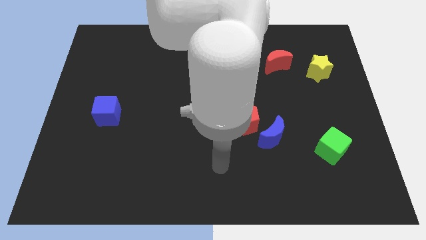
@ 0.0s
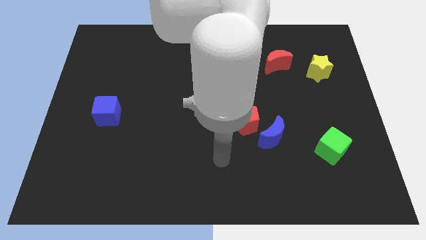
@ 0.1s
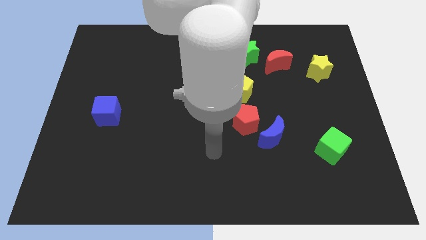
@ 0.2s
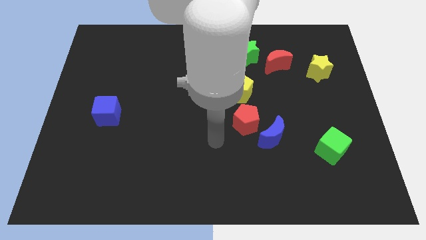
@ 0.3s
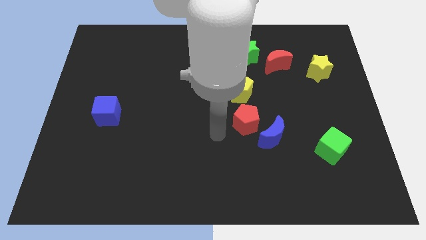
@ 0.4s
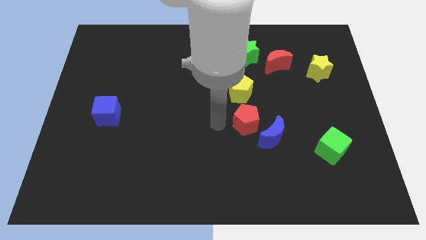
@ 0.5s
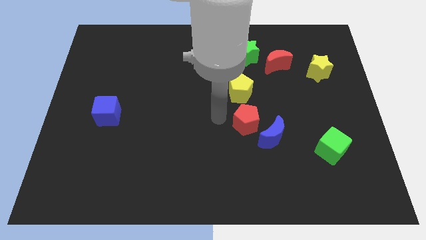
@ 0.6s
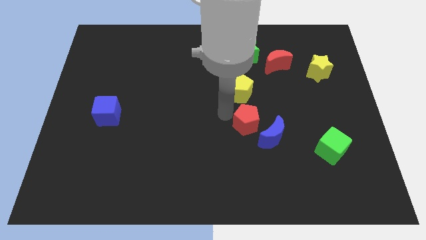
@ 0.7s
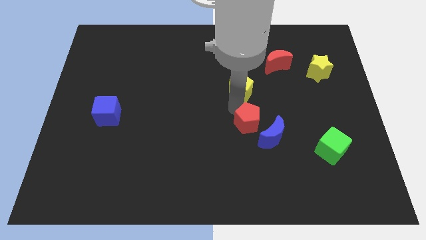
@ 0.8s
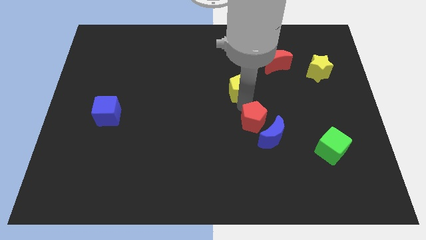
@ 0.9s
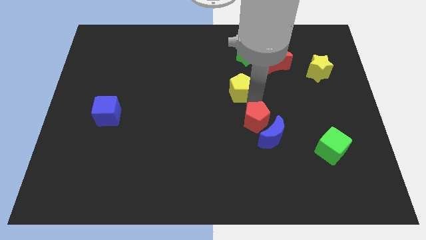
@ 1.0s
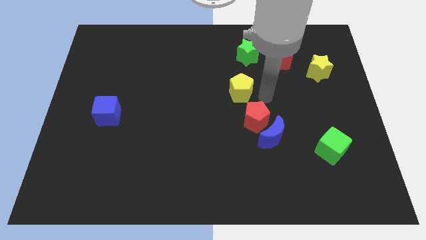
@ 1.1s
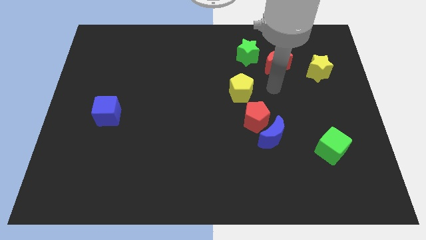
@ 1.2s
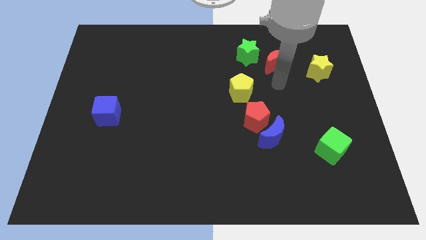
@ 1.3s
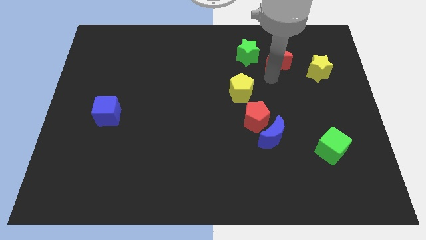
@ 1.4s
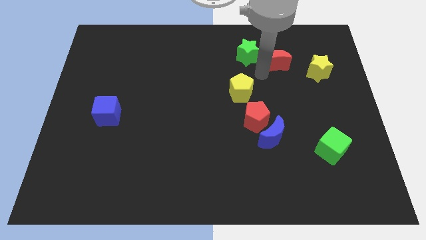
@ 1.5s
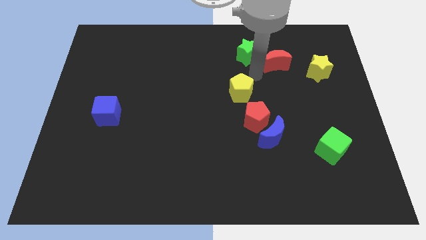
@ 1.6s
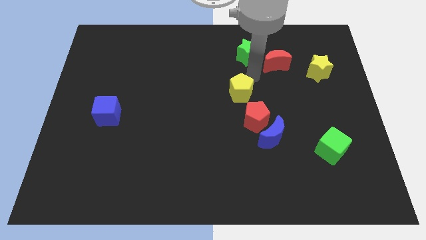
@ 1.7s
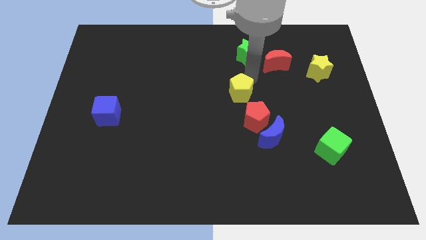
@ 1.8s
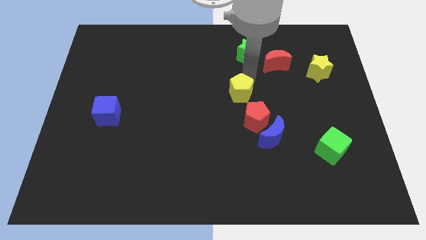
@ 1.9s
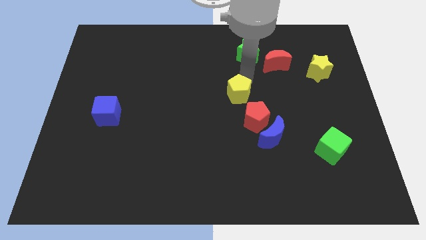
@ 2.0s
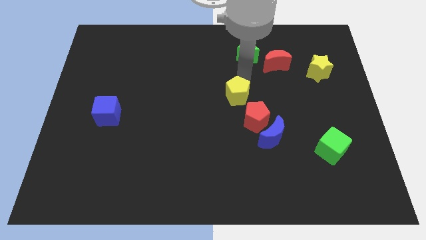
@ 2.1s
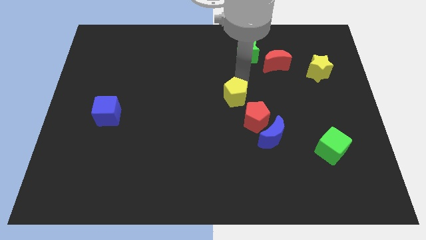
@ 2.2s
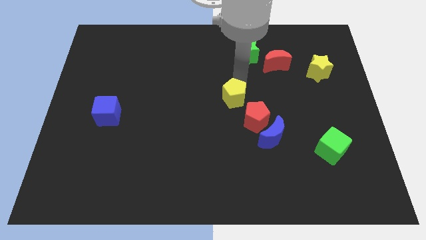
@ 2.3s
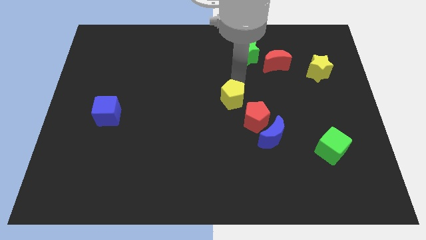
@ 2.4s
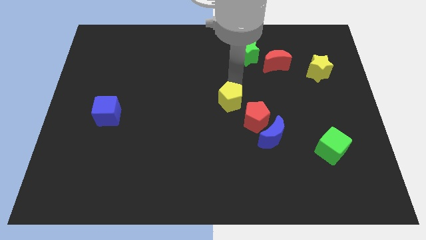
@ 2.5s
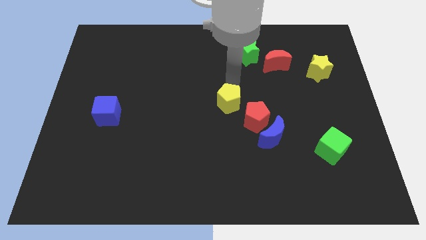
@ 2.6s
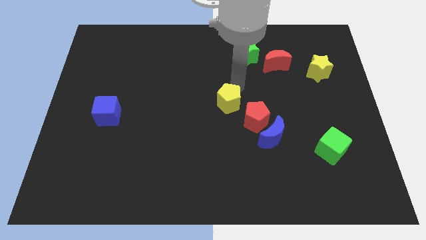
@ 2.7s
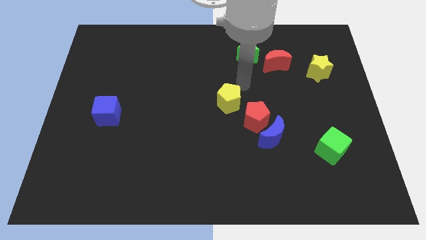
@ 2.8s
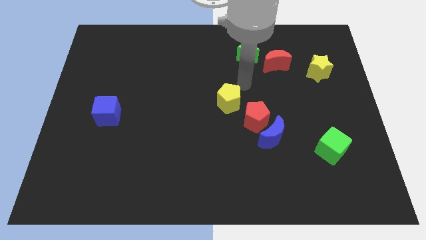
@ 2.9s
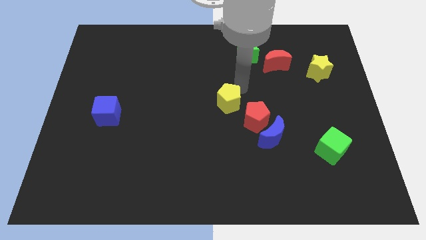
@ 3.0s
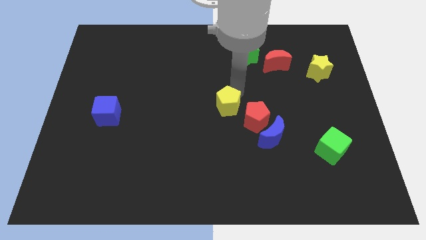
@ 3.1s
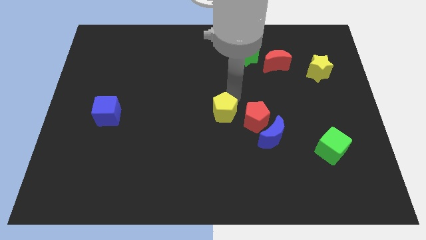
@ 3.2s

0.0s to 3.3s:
slide the yellow pentagon slightly downwards and to the left

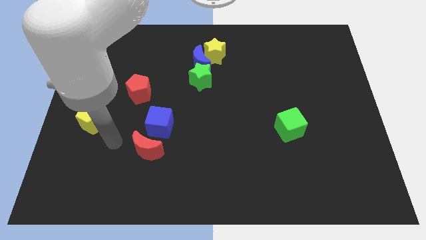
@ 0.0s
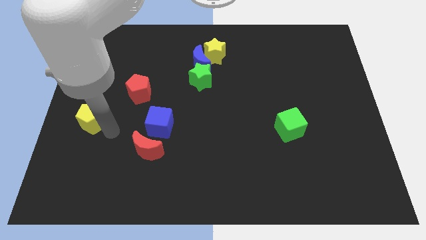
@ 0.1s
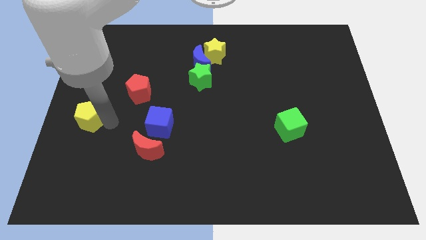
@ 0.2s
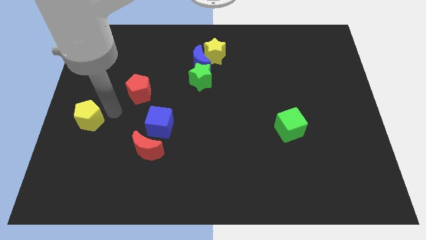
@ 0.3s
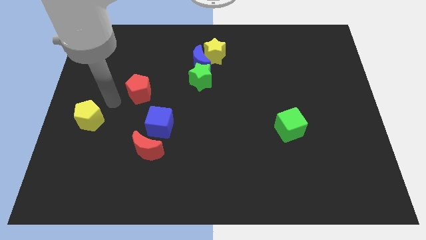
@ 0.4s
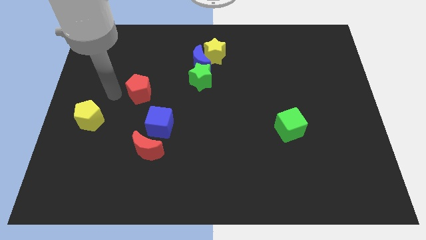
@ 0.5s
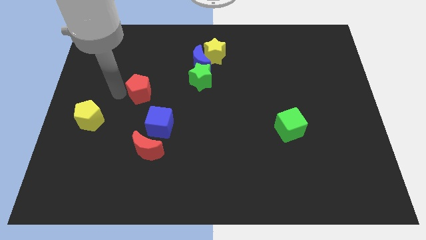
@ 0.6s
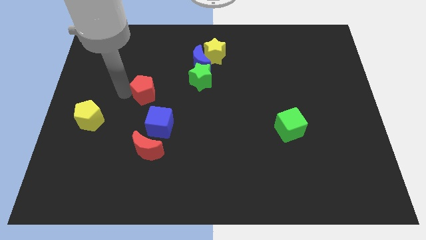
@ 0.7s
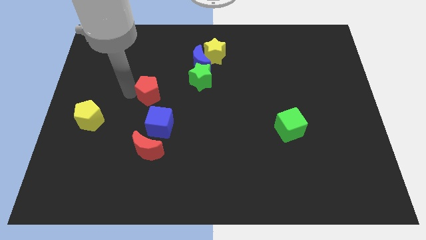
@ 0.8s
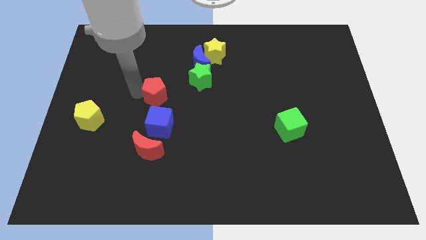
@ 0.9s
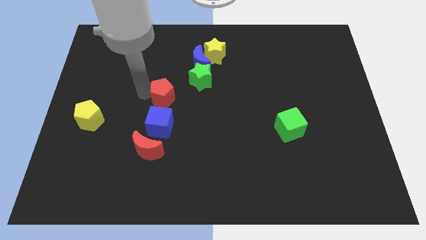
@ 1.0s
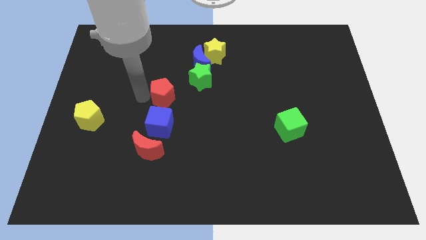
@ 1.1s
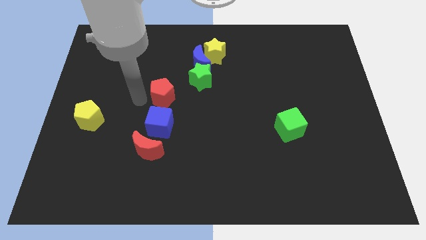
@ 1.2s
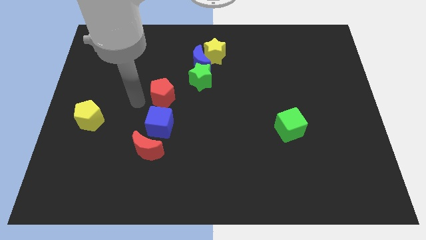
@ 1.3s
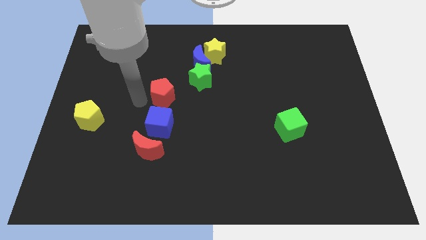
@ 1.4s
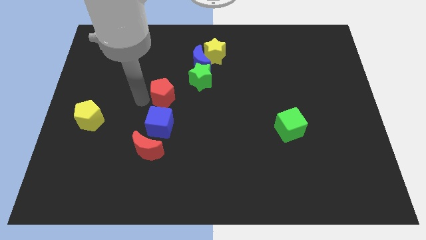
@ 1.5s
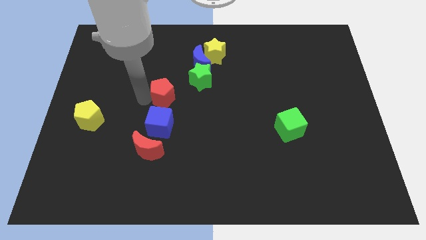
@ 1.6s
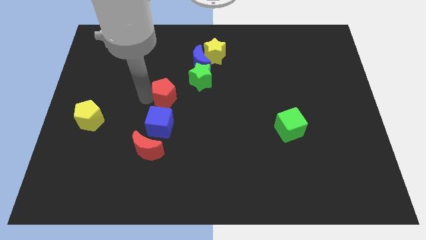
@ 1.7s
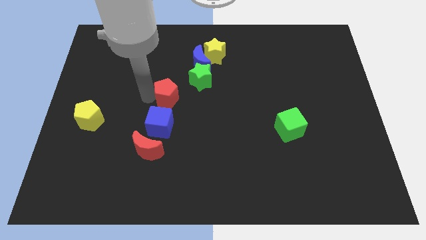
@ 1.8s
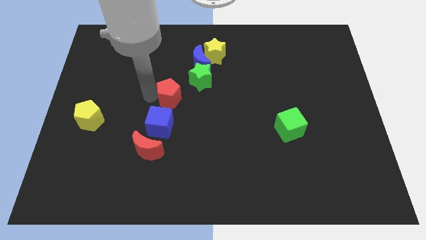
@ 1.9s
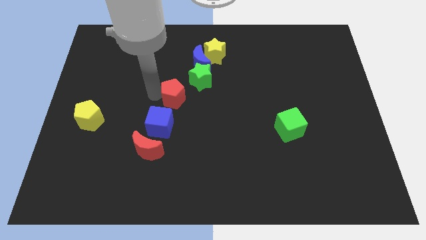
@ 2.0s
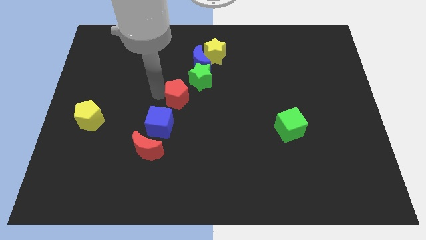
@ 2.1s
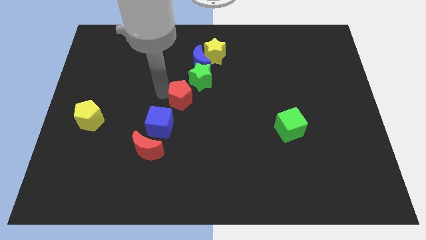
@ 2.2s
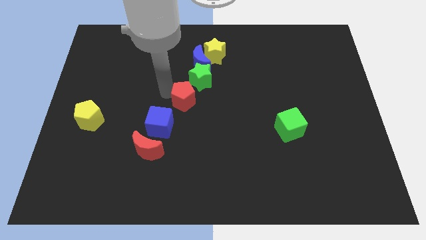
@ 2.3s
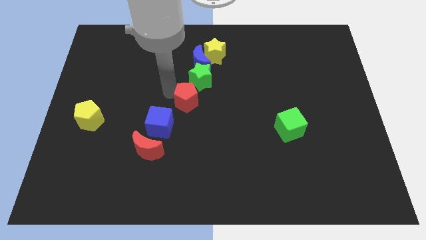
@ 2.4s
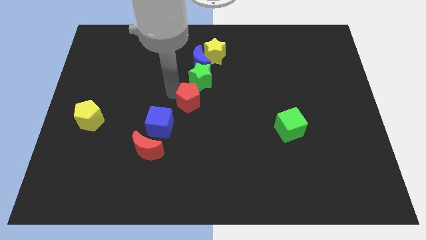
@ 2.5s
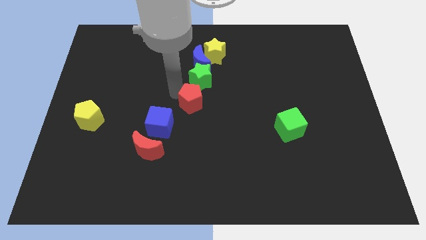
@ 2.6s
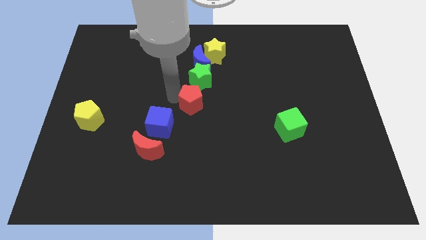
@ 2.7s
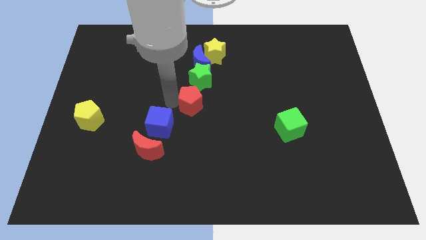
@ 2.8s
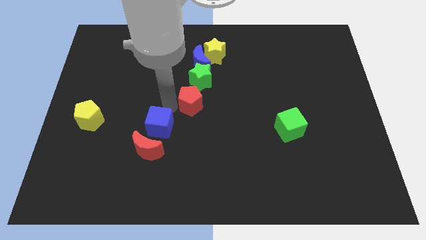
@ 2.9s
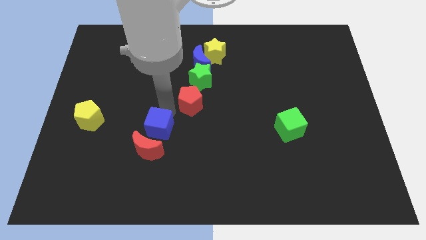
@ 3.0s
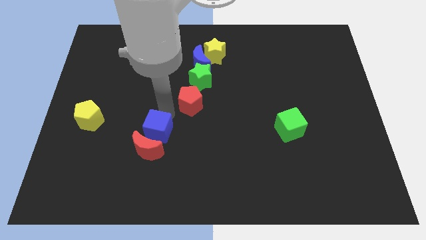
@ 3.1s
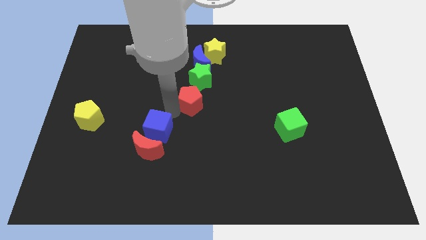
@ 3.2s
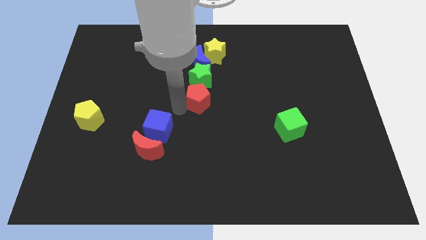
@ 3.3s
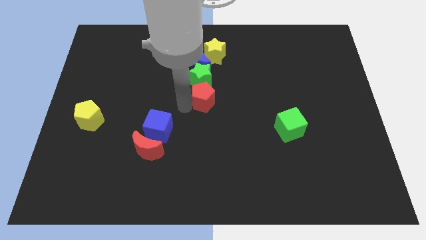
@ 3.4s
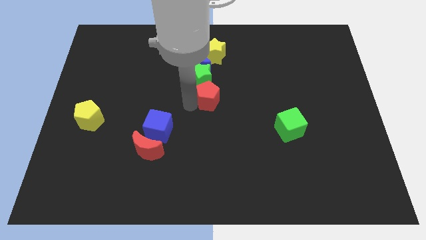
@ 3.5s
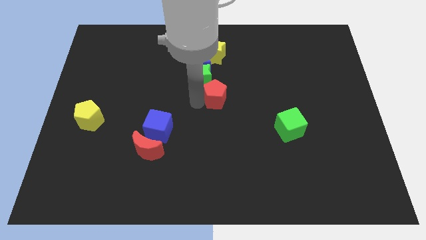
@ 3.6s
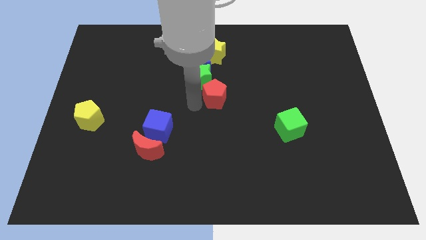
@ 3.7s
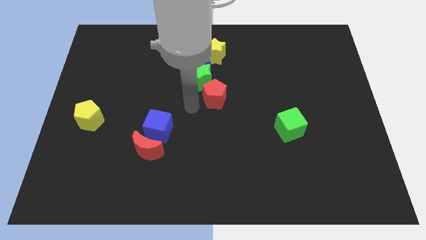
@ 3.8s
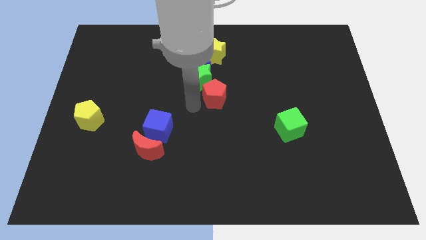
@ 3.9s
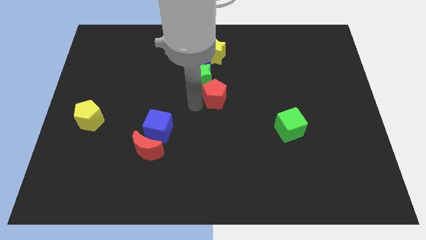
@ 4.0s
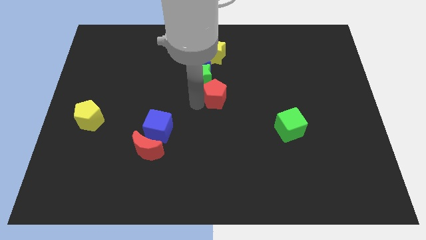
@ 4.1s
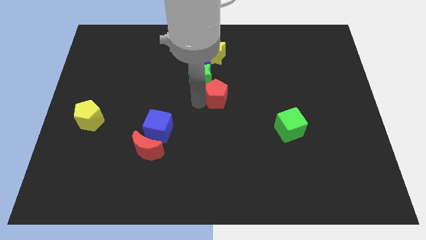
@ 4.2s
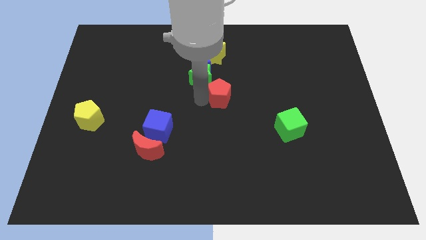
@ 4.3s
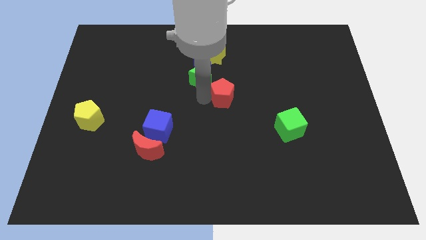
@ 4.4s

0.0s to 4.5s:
push the red pentagon to the right
